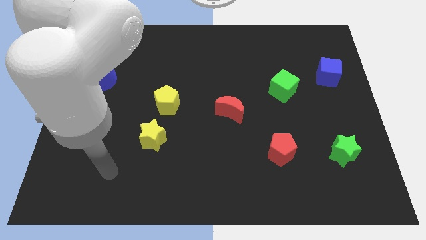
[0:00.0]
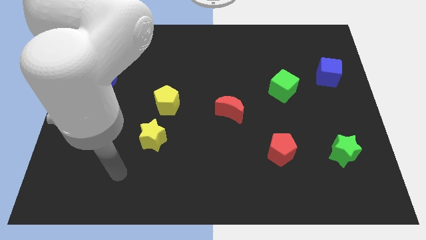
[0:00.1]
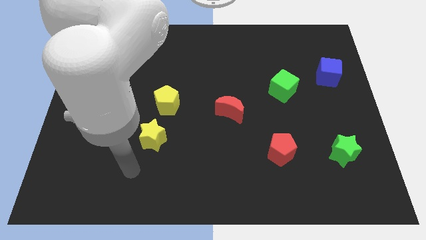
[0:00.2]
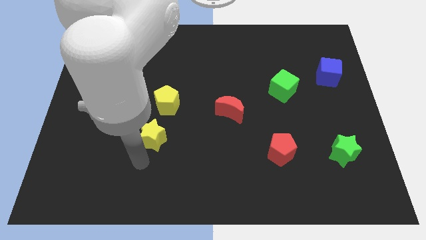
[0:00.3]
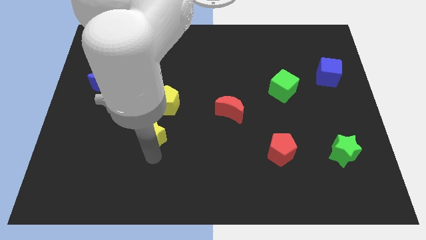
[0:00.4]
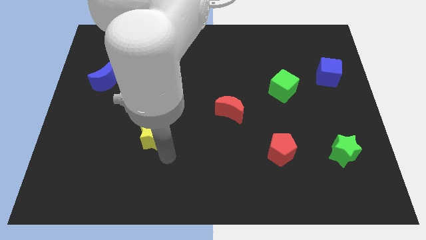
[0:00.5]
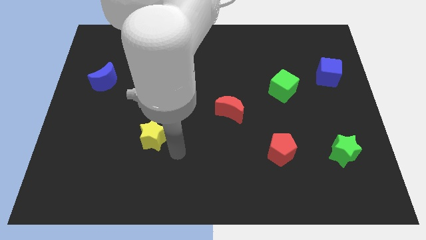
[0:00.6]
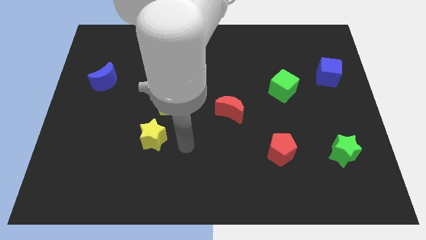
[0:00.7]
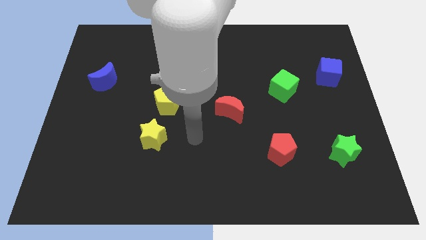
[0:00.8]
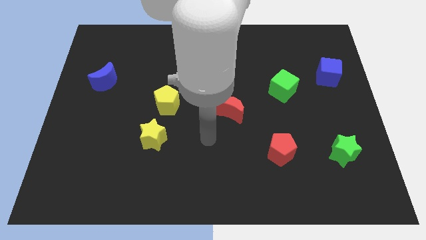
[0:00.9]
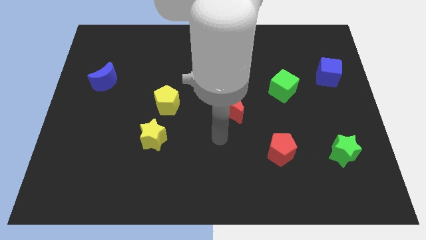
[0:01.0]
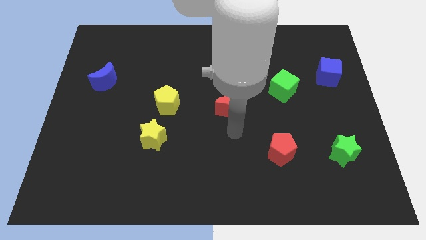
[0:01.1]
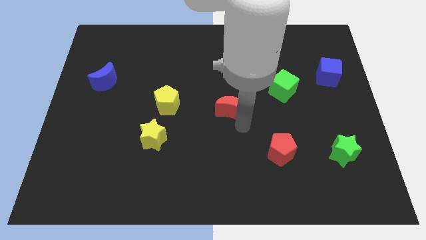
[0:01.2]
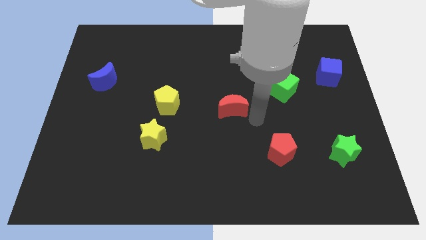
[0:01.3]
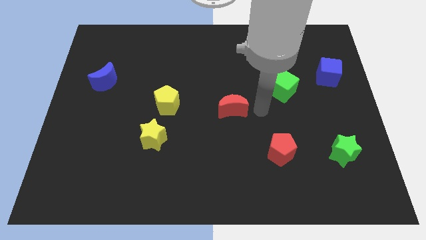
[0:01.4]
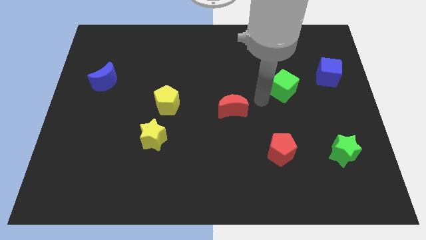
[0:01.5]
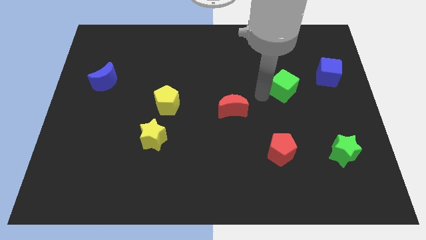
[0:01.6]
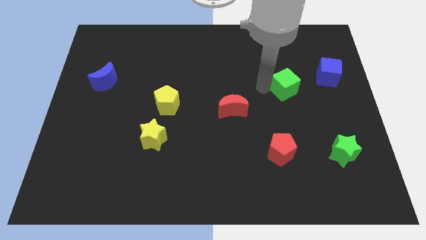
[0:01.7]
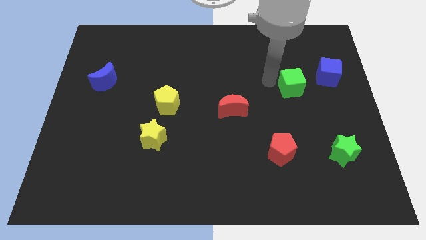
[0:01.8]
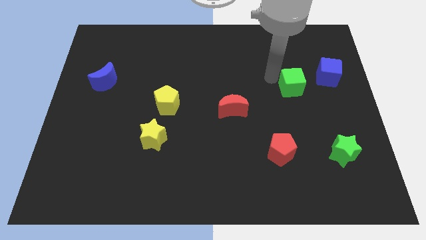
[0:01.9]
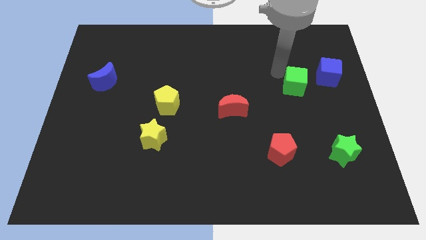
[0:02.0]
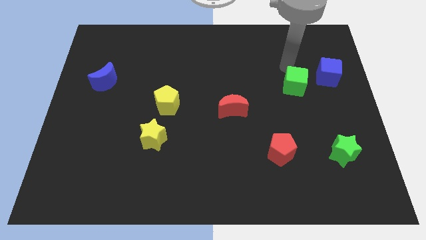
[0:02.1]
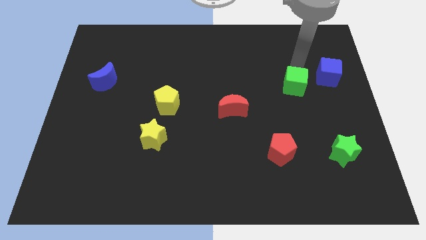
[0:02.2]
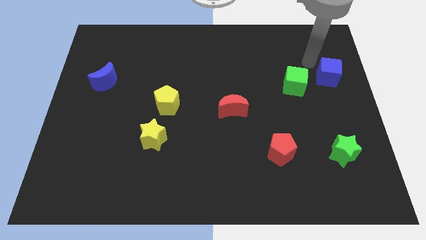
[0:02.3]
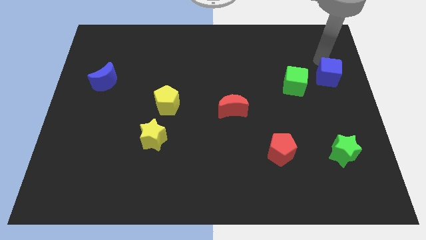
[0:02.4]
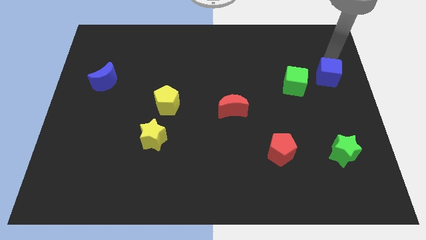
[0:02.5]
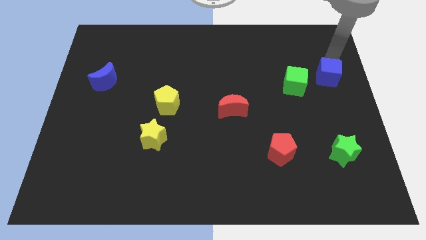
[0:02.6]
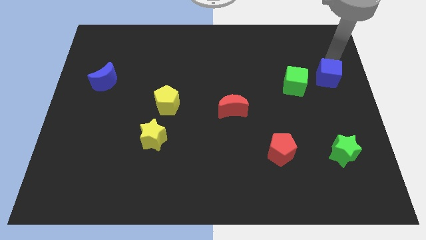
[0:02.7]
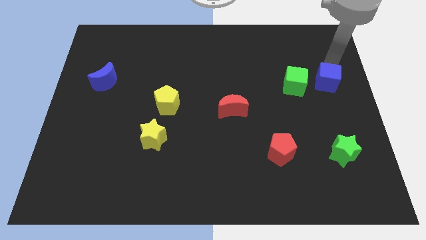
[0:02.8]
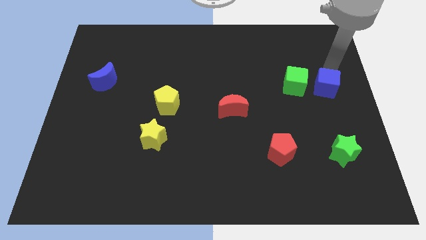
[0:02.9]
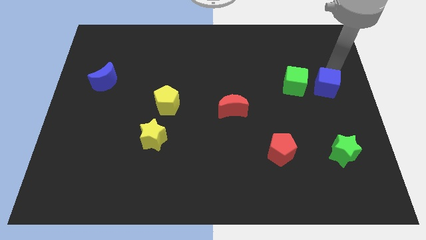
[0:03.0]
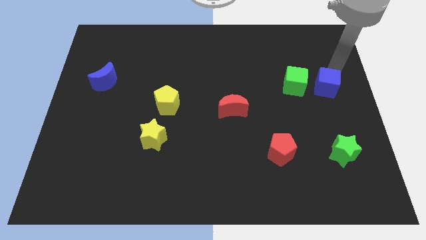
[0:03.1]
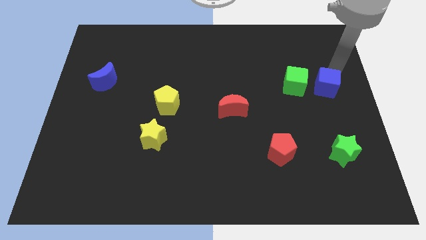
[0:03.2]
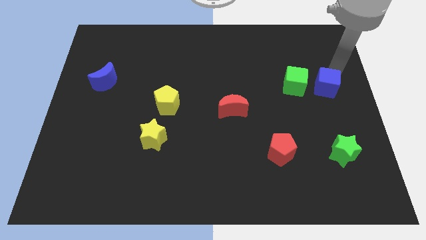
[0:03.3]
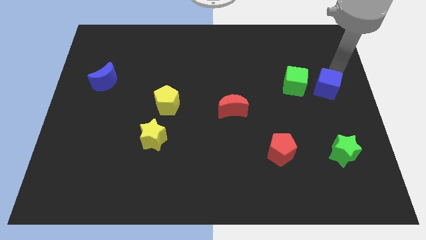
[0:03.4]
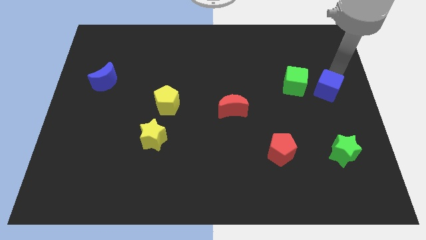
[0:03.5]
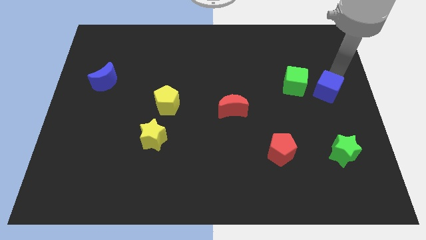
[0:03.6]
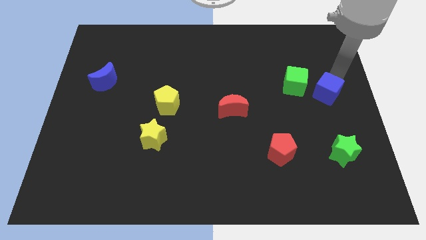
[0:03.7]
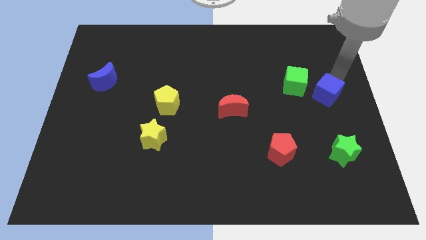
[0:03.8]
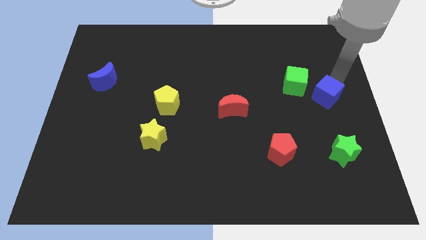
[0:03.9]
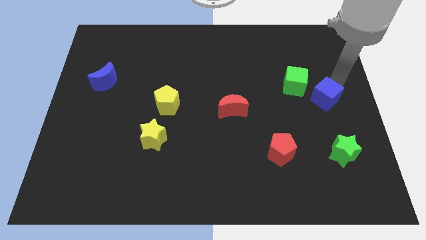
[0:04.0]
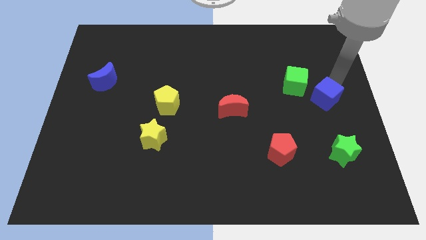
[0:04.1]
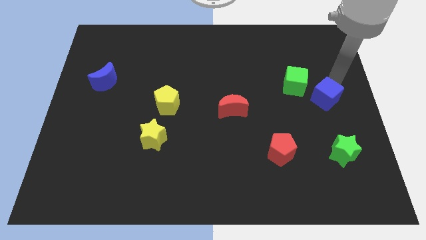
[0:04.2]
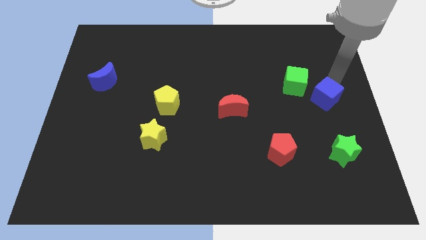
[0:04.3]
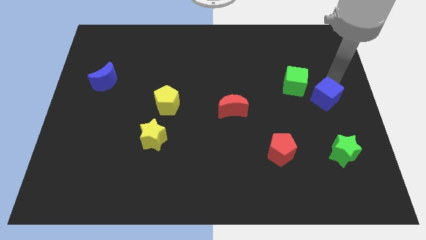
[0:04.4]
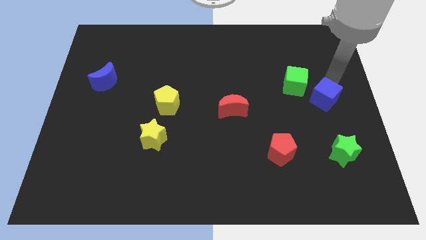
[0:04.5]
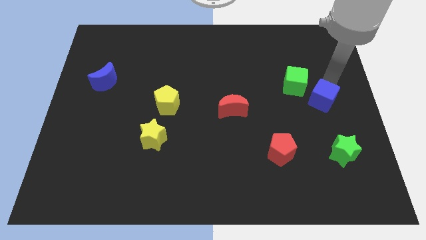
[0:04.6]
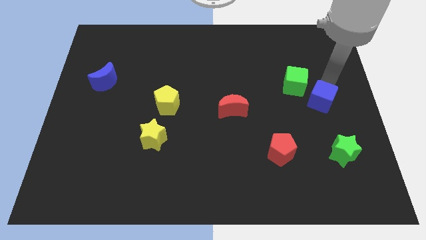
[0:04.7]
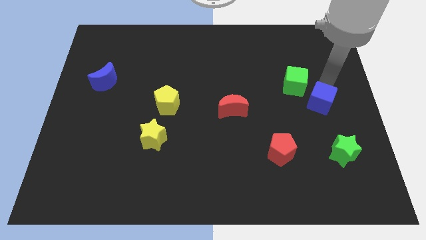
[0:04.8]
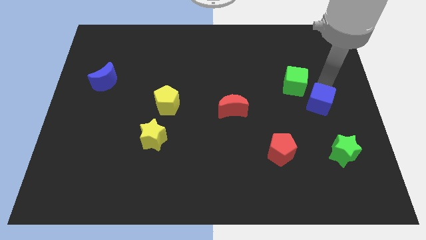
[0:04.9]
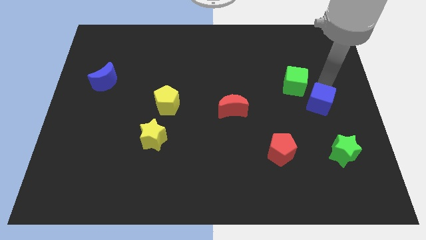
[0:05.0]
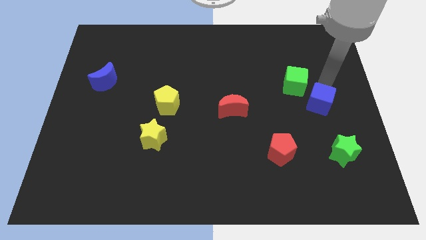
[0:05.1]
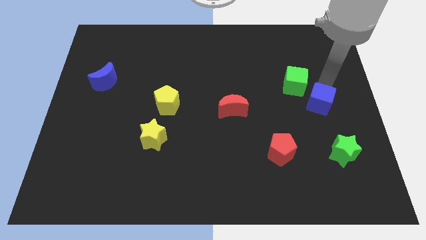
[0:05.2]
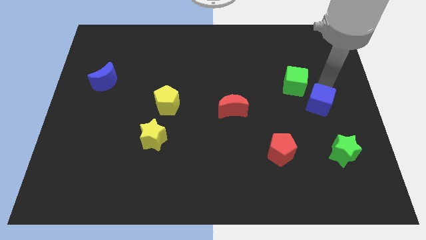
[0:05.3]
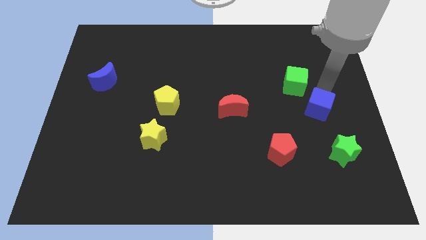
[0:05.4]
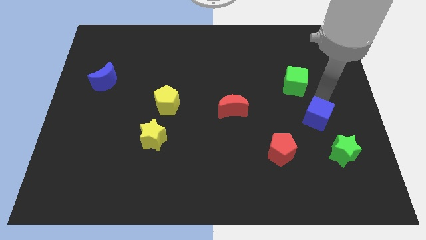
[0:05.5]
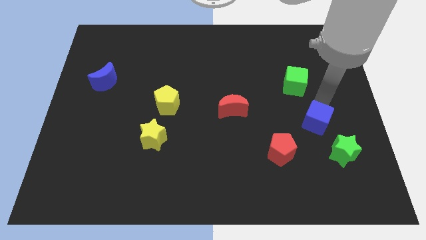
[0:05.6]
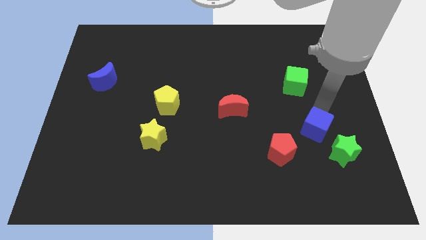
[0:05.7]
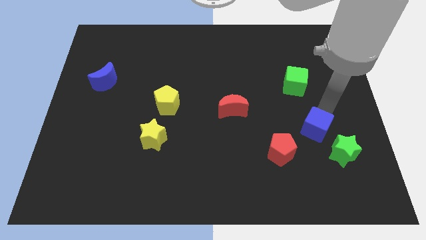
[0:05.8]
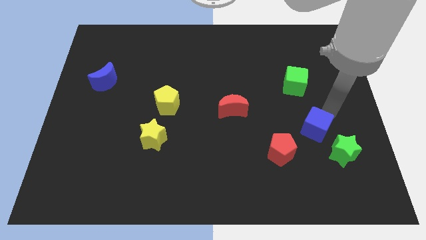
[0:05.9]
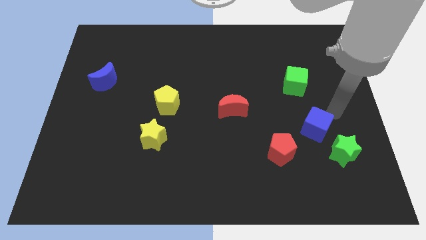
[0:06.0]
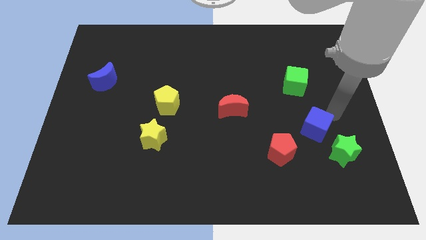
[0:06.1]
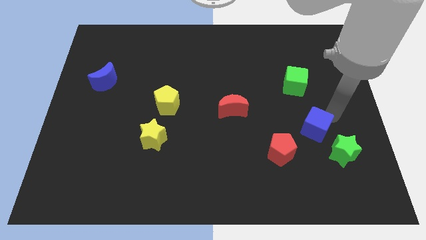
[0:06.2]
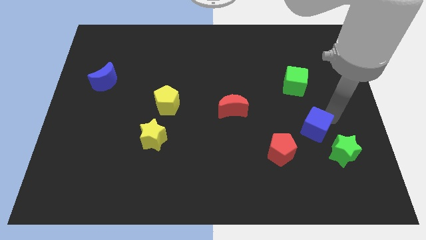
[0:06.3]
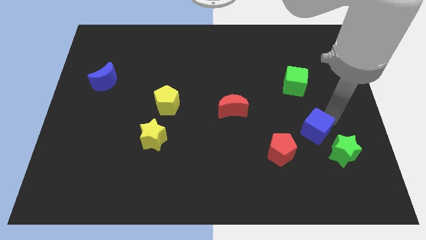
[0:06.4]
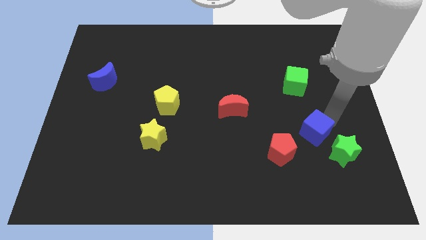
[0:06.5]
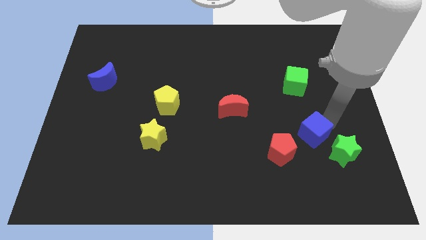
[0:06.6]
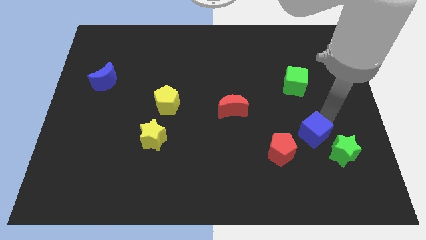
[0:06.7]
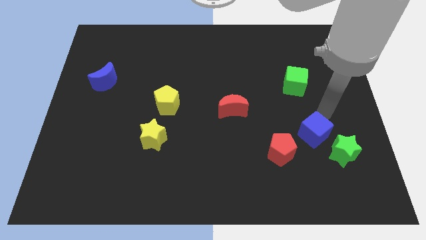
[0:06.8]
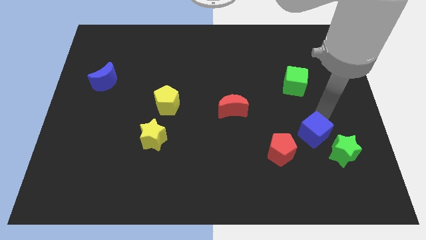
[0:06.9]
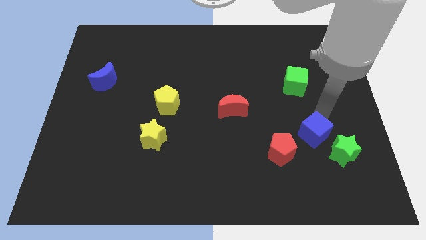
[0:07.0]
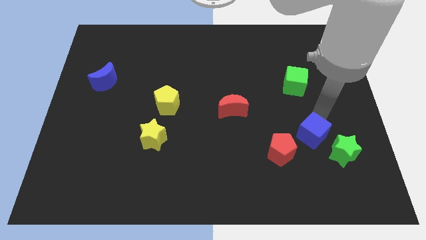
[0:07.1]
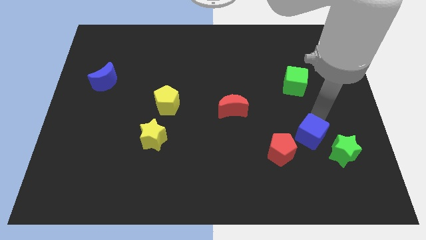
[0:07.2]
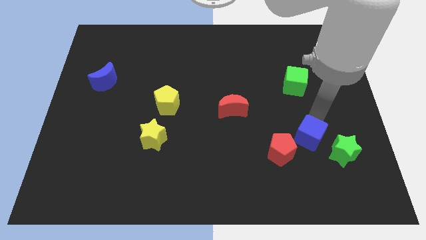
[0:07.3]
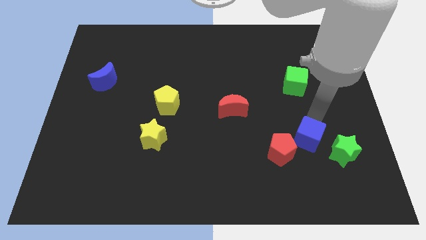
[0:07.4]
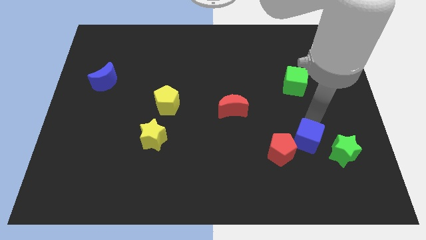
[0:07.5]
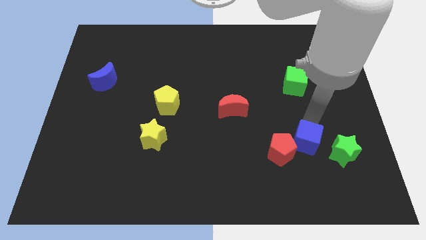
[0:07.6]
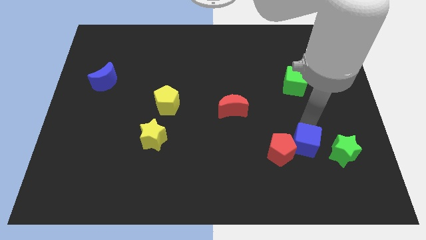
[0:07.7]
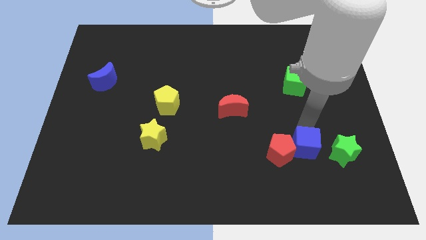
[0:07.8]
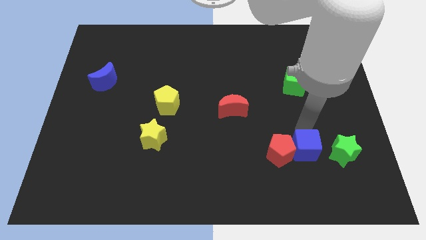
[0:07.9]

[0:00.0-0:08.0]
move the blue cube diagonally down and to the right of the red pentagon
